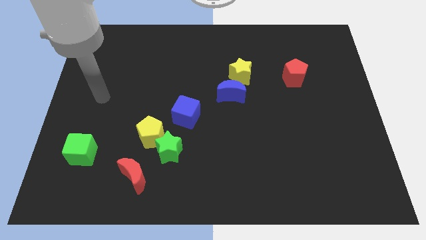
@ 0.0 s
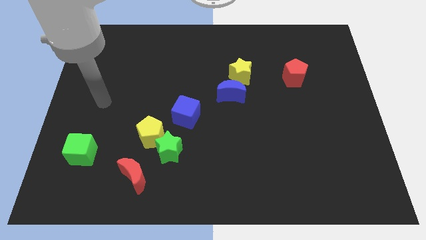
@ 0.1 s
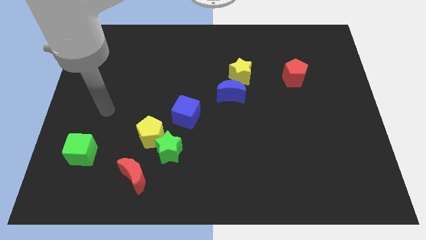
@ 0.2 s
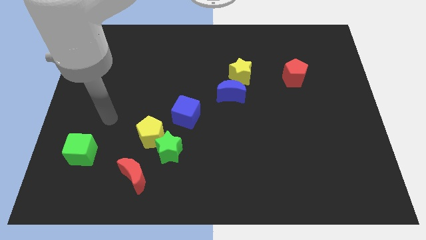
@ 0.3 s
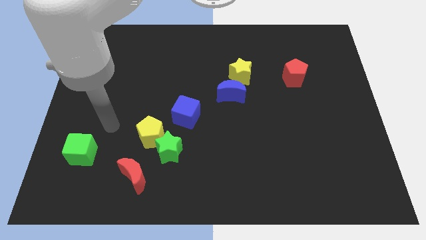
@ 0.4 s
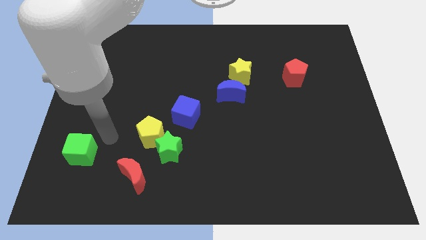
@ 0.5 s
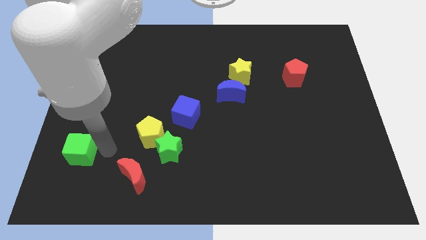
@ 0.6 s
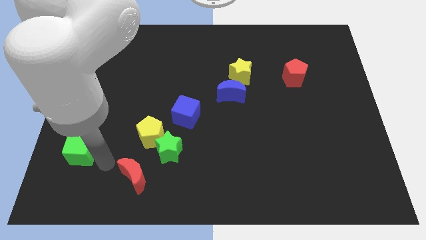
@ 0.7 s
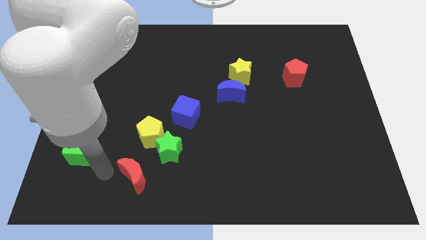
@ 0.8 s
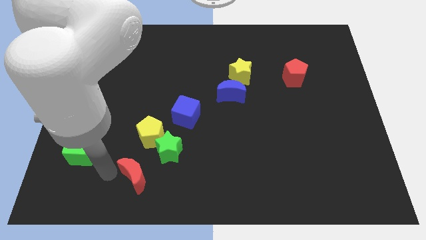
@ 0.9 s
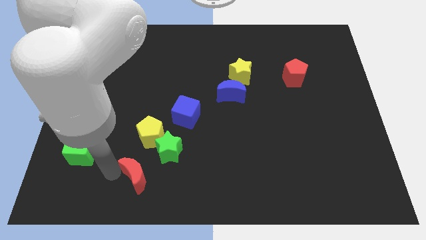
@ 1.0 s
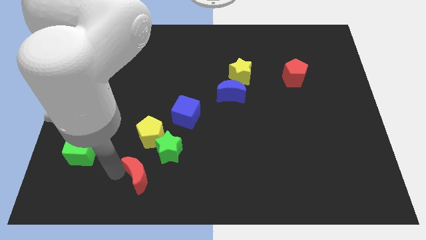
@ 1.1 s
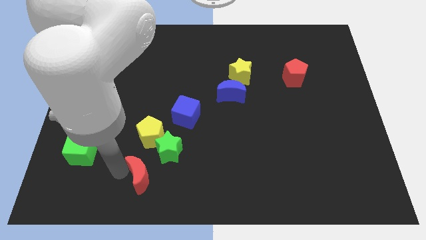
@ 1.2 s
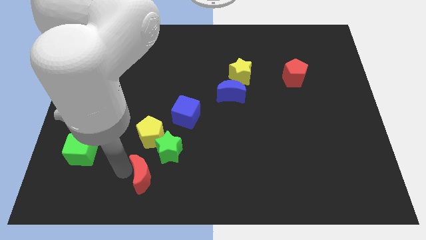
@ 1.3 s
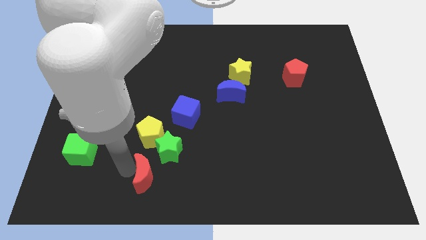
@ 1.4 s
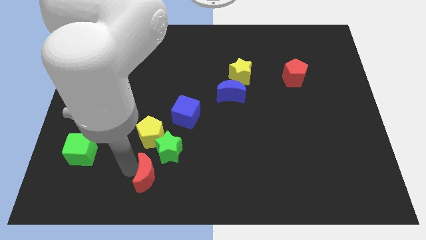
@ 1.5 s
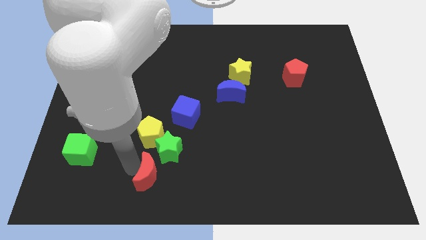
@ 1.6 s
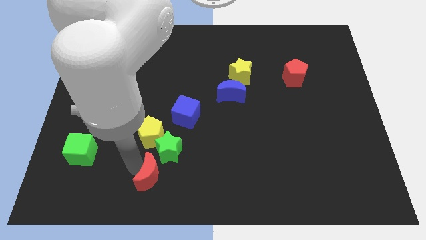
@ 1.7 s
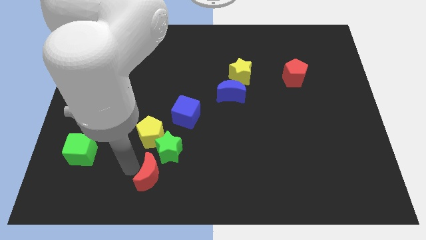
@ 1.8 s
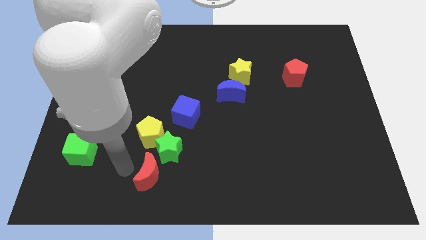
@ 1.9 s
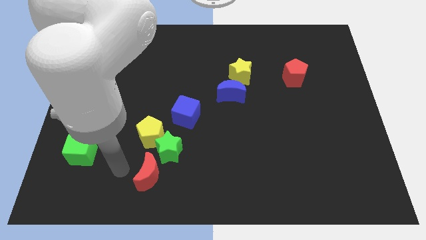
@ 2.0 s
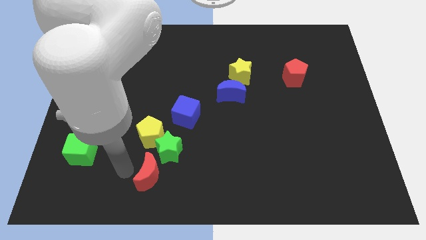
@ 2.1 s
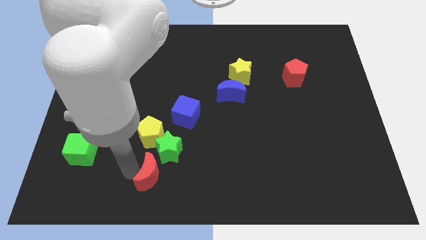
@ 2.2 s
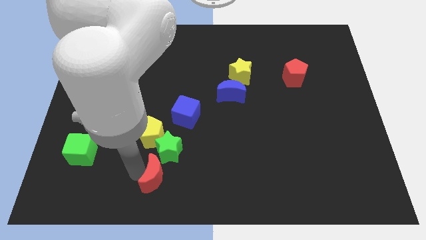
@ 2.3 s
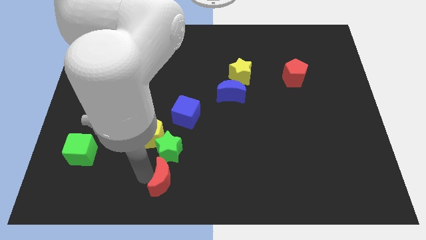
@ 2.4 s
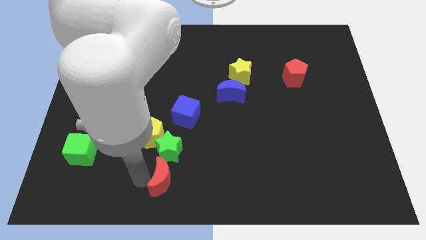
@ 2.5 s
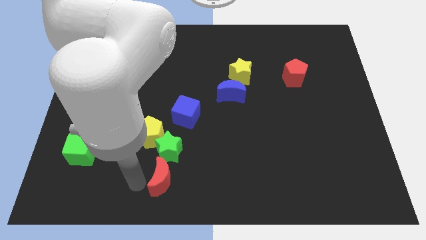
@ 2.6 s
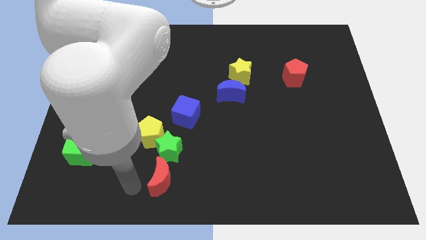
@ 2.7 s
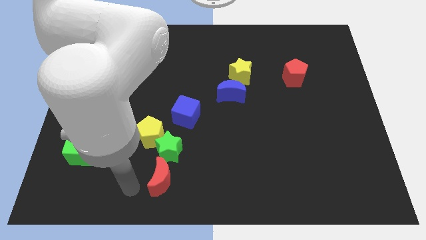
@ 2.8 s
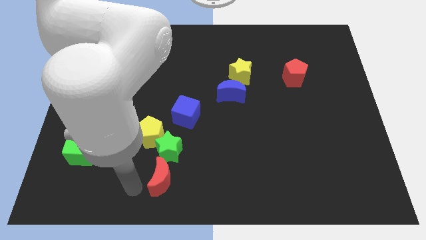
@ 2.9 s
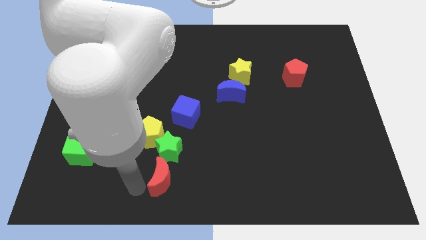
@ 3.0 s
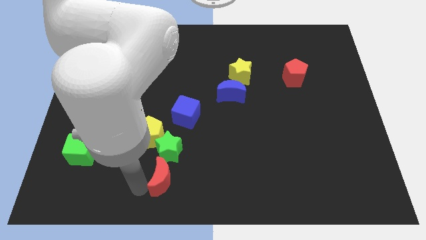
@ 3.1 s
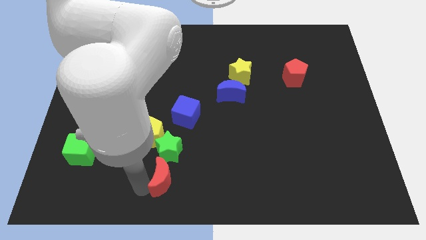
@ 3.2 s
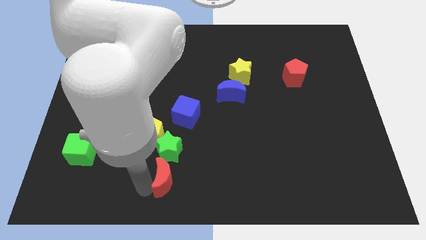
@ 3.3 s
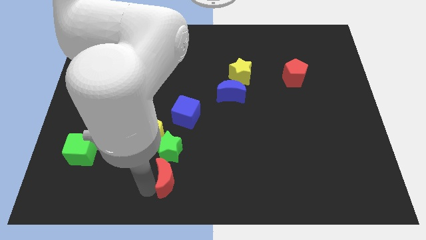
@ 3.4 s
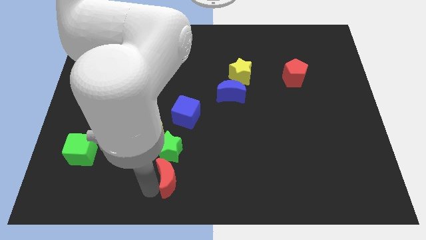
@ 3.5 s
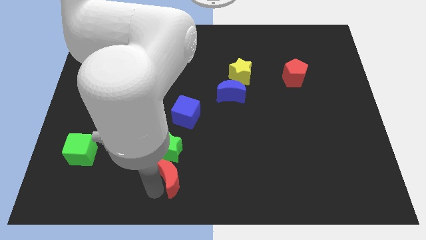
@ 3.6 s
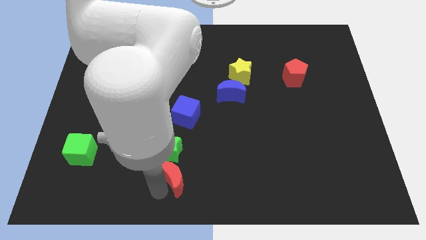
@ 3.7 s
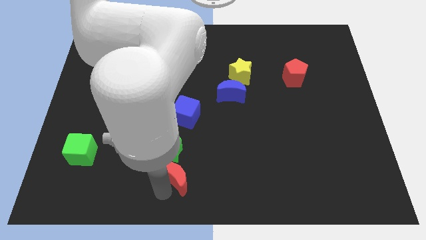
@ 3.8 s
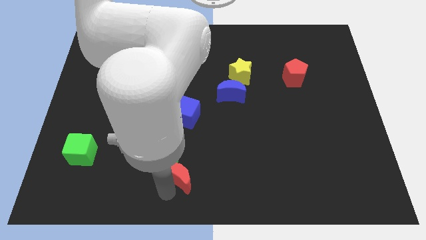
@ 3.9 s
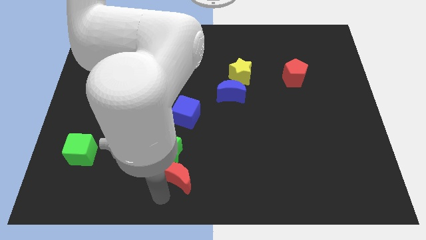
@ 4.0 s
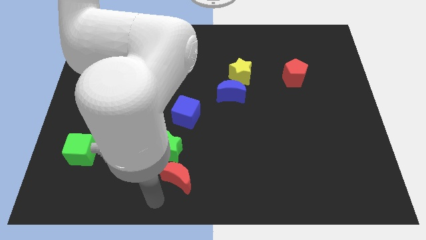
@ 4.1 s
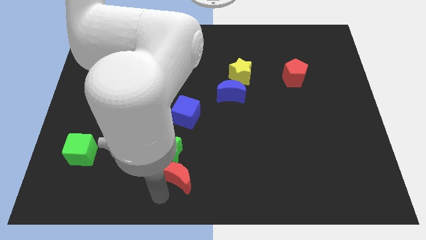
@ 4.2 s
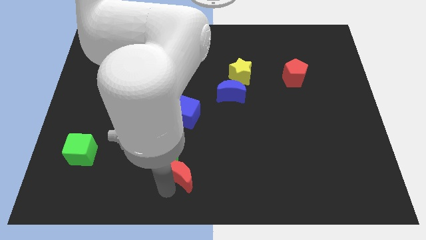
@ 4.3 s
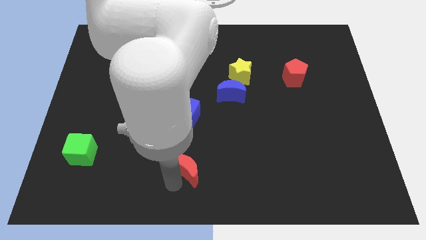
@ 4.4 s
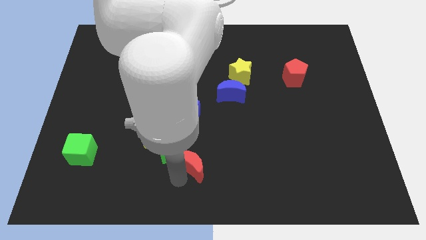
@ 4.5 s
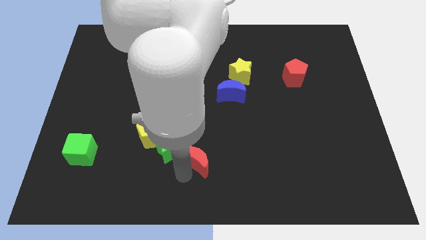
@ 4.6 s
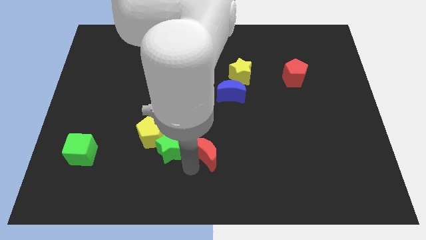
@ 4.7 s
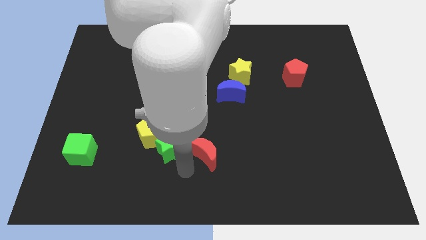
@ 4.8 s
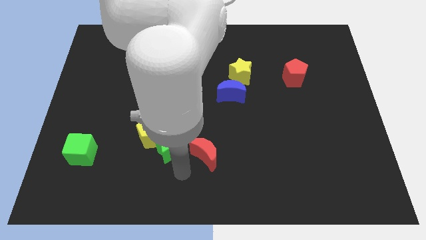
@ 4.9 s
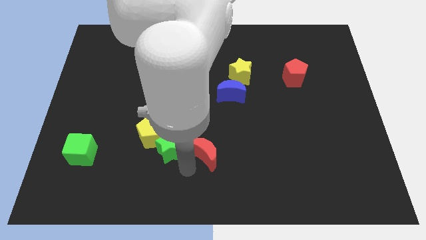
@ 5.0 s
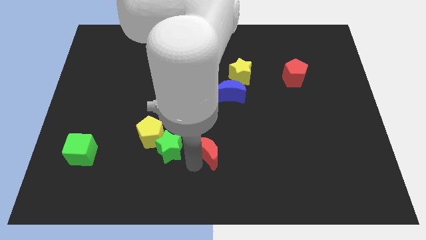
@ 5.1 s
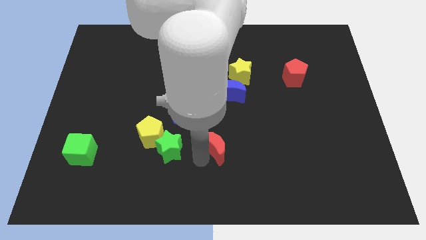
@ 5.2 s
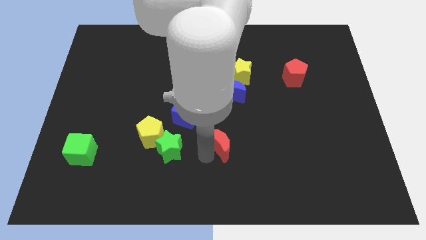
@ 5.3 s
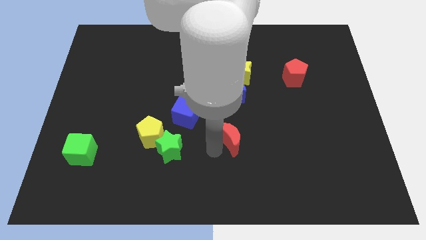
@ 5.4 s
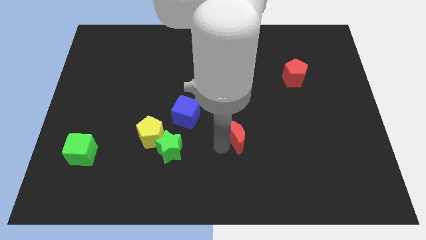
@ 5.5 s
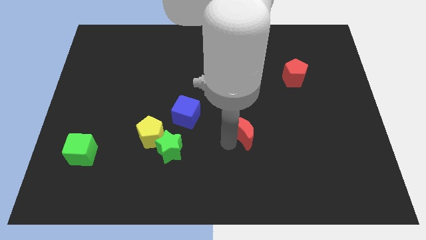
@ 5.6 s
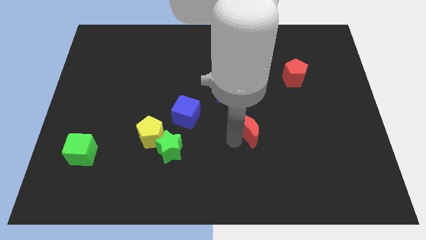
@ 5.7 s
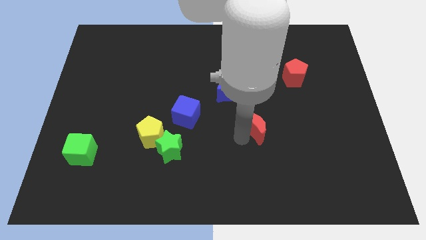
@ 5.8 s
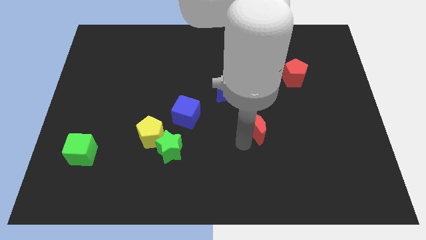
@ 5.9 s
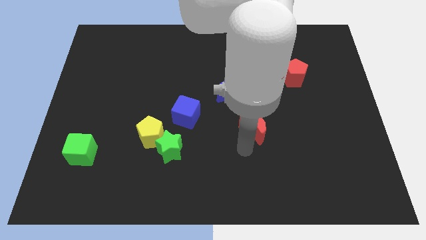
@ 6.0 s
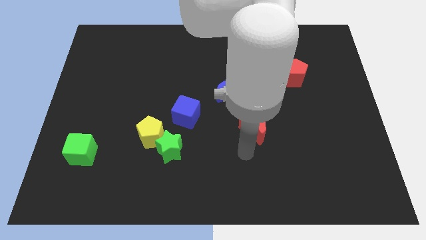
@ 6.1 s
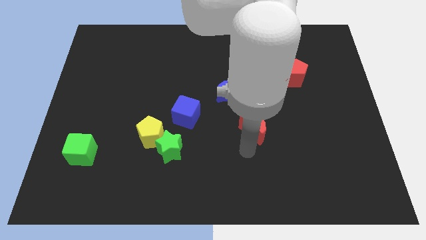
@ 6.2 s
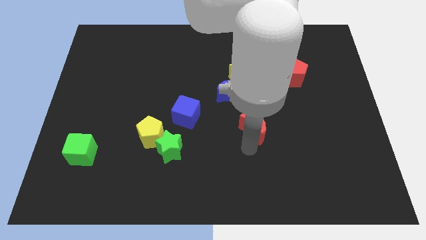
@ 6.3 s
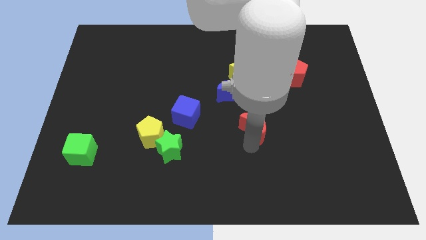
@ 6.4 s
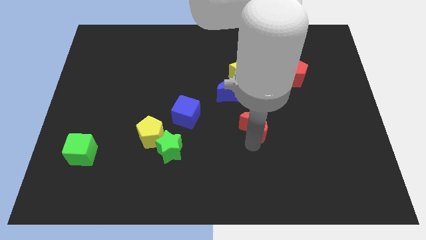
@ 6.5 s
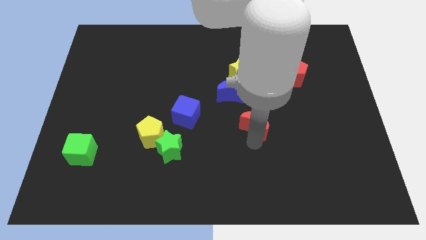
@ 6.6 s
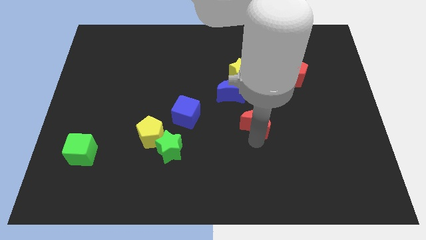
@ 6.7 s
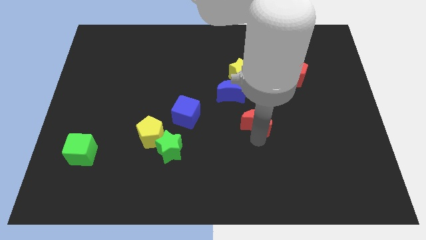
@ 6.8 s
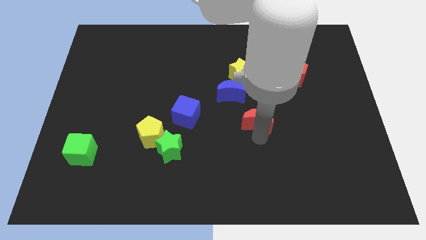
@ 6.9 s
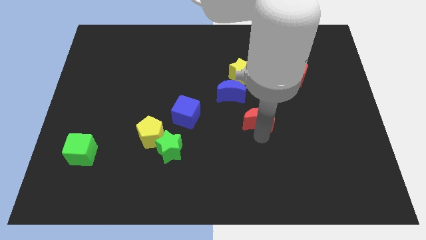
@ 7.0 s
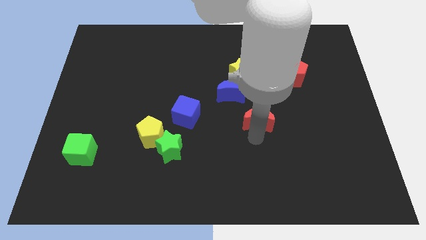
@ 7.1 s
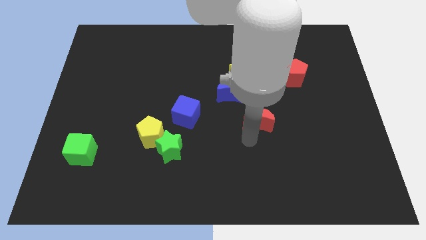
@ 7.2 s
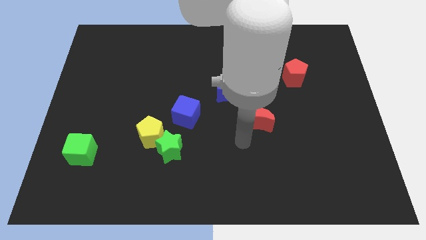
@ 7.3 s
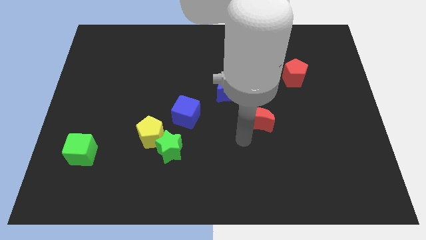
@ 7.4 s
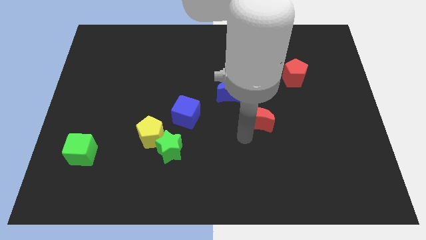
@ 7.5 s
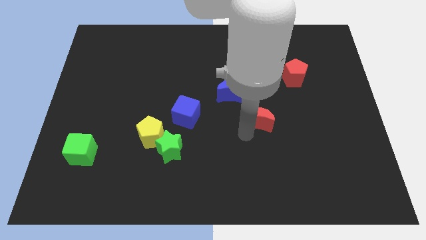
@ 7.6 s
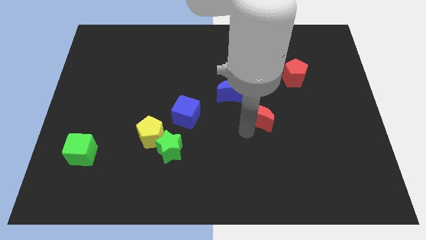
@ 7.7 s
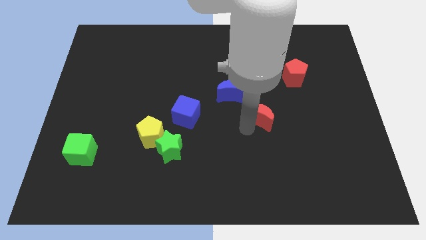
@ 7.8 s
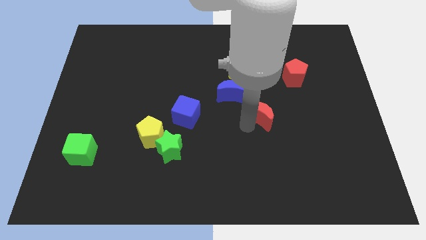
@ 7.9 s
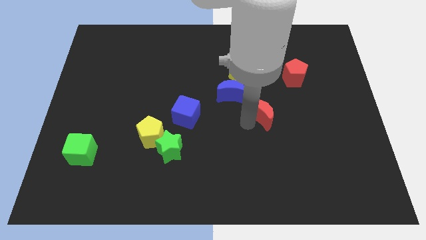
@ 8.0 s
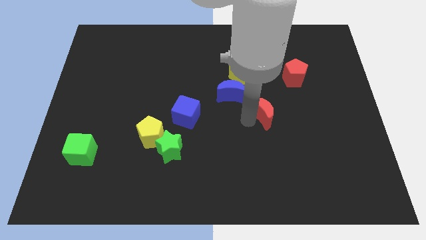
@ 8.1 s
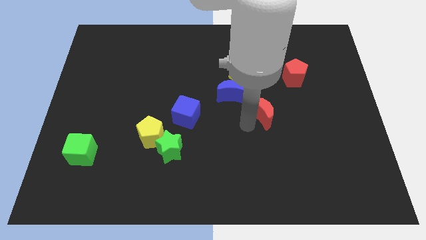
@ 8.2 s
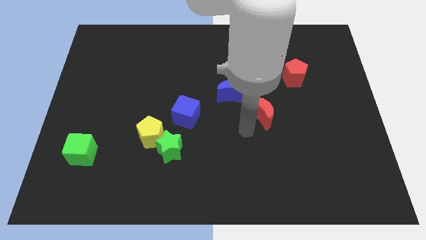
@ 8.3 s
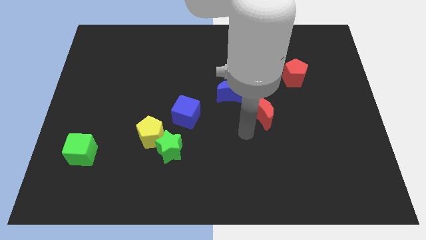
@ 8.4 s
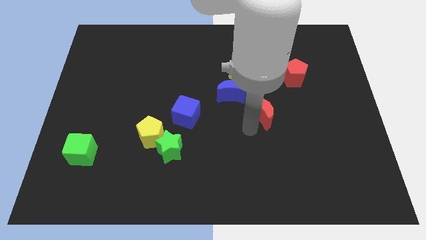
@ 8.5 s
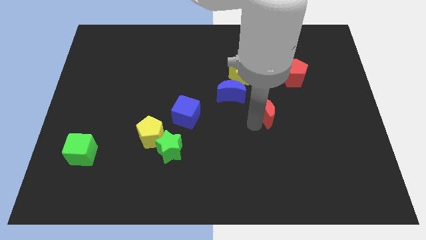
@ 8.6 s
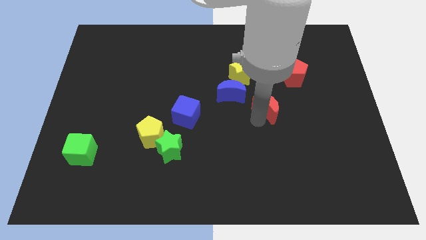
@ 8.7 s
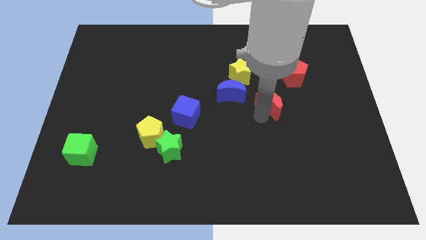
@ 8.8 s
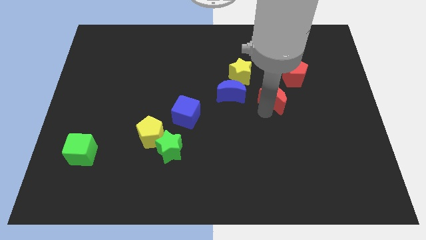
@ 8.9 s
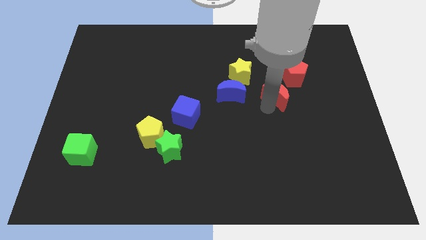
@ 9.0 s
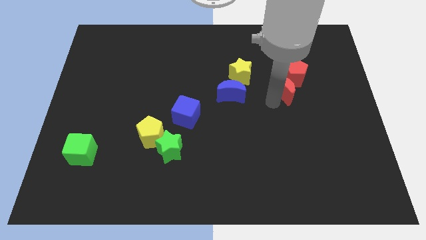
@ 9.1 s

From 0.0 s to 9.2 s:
push the red moon close to the red pentagon
